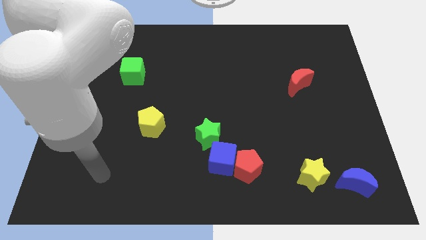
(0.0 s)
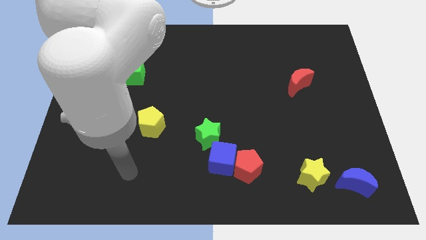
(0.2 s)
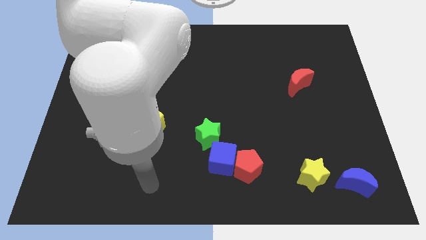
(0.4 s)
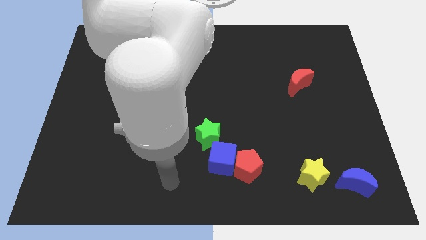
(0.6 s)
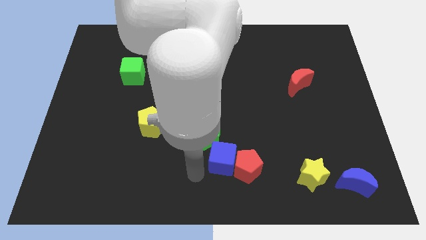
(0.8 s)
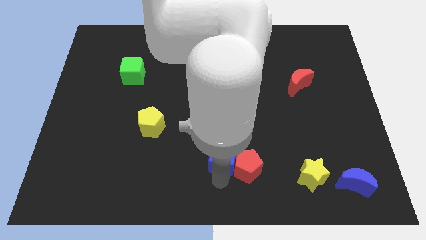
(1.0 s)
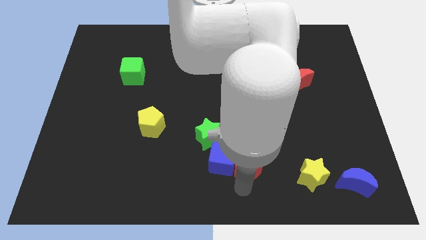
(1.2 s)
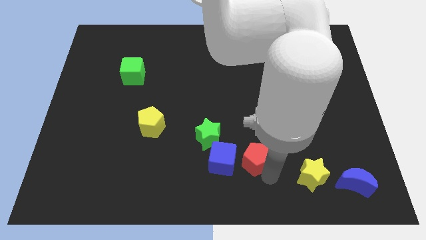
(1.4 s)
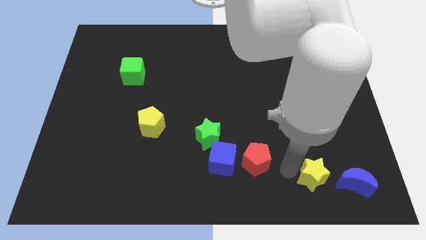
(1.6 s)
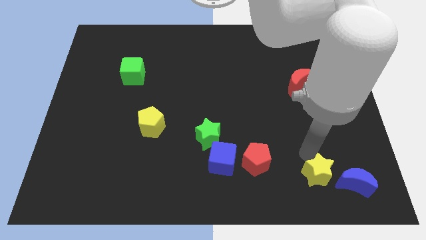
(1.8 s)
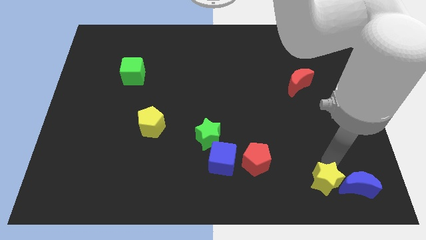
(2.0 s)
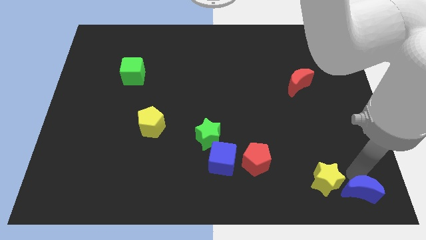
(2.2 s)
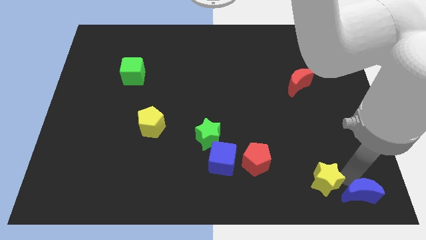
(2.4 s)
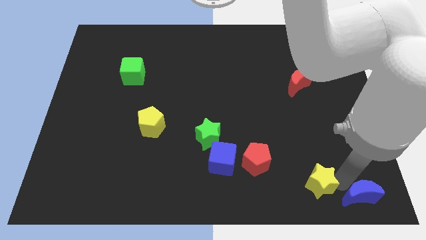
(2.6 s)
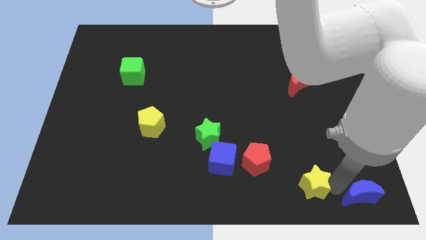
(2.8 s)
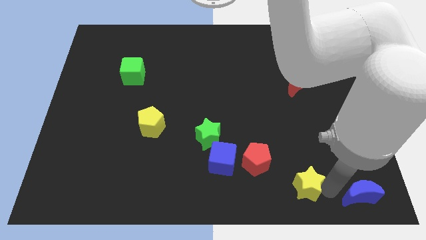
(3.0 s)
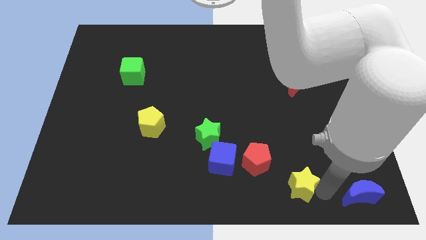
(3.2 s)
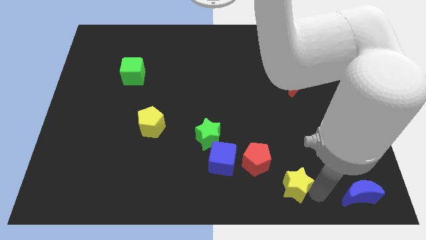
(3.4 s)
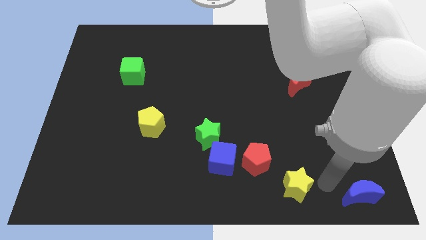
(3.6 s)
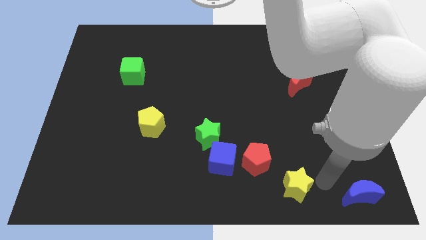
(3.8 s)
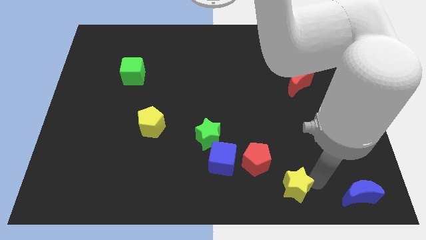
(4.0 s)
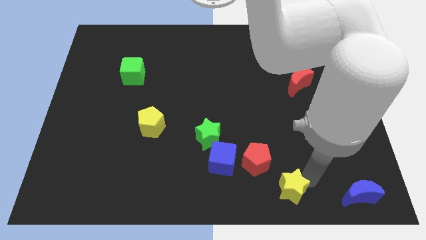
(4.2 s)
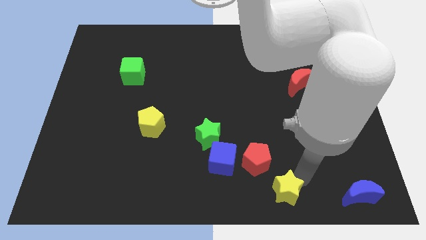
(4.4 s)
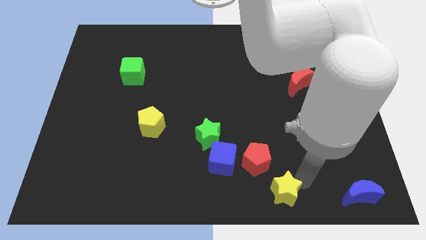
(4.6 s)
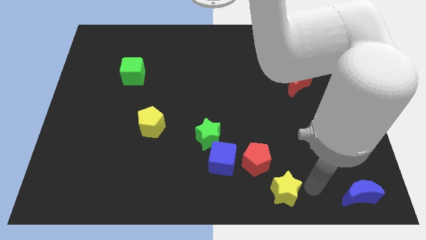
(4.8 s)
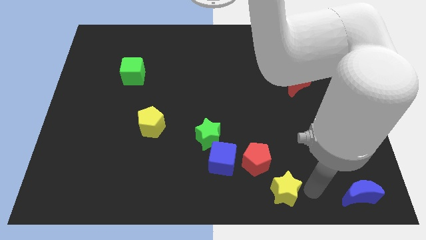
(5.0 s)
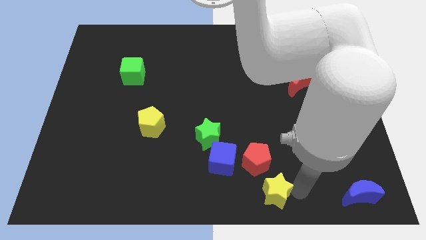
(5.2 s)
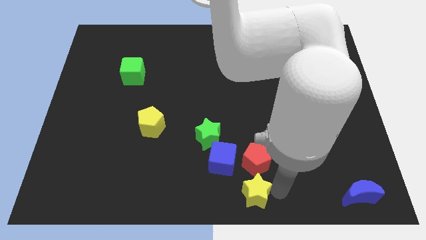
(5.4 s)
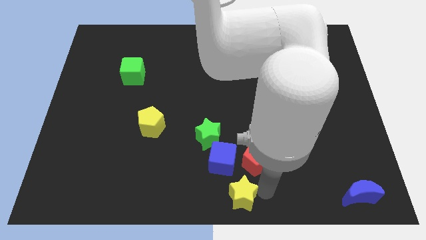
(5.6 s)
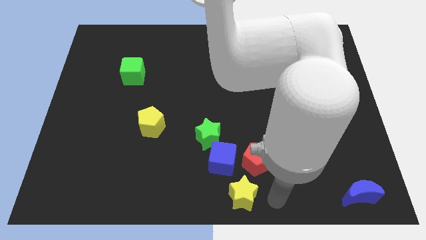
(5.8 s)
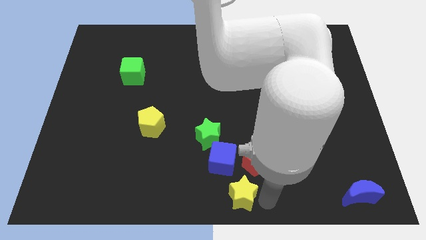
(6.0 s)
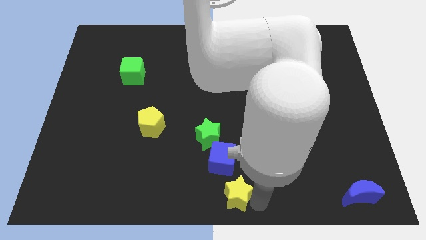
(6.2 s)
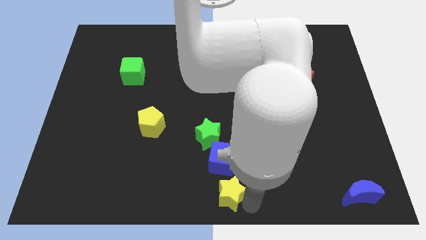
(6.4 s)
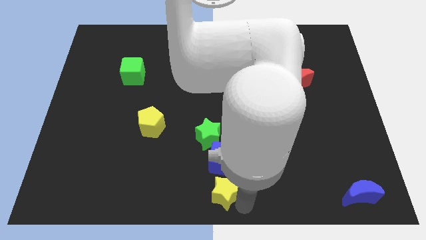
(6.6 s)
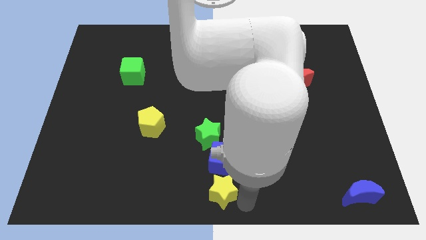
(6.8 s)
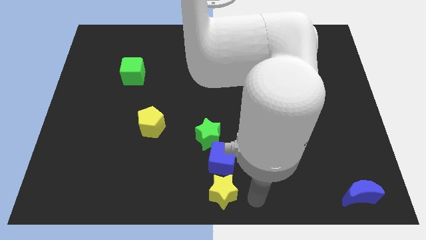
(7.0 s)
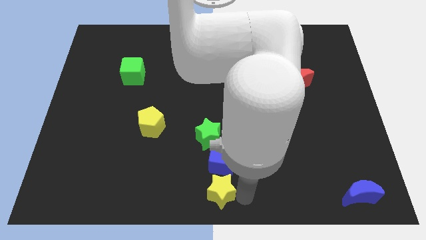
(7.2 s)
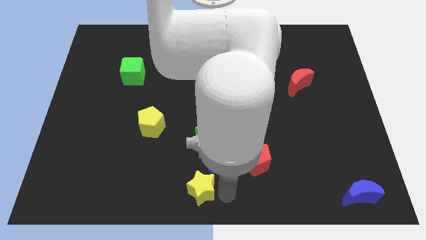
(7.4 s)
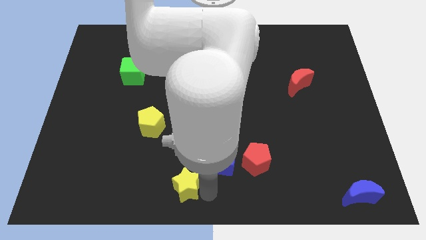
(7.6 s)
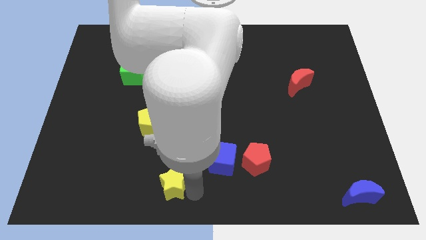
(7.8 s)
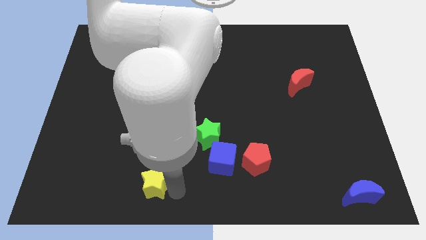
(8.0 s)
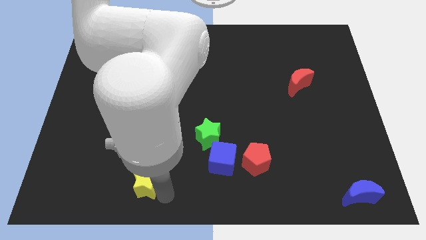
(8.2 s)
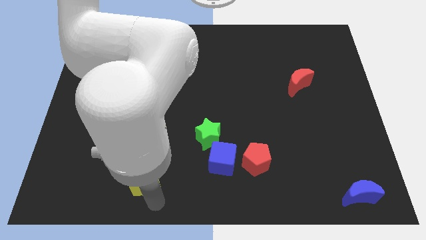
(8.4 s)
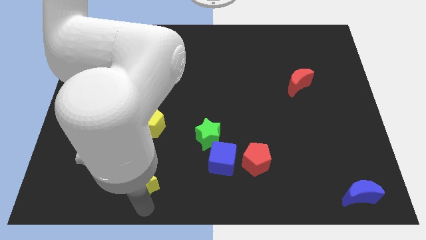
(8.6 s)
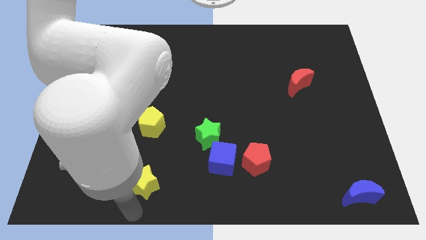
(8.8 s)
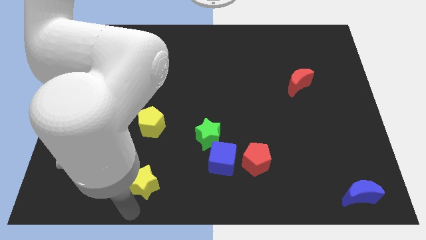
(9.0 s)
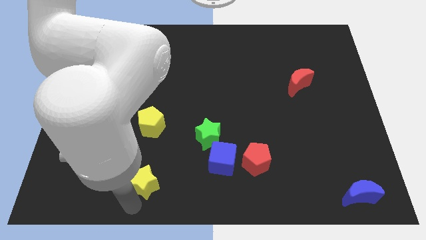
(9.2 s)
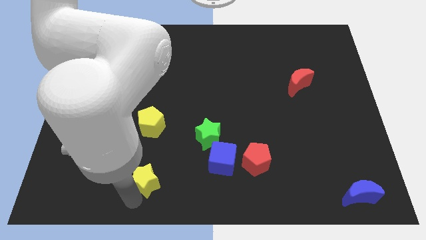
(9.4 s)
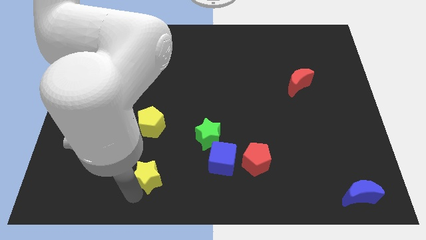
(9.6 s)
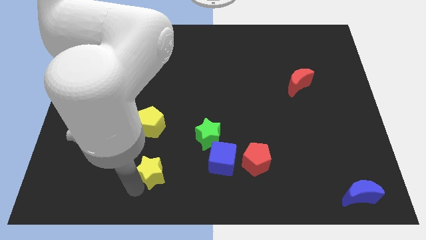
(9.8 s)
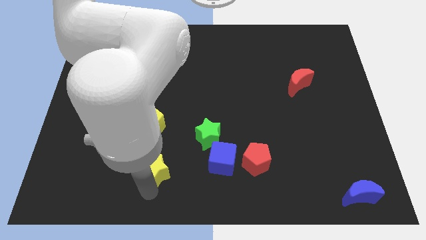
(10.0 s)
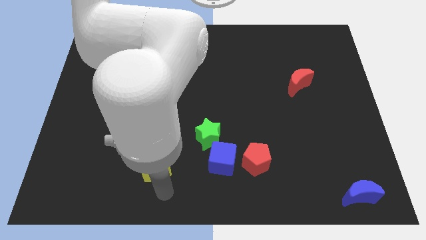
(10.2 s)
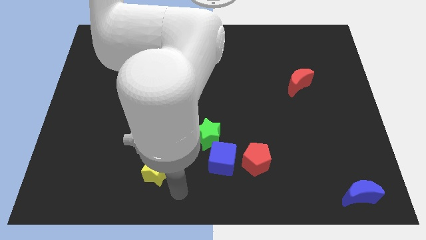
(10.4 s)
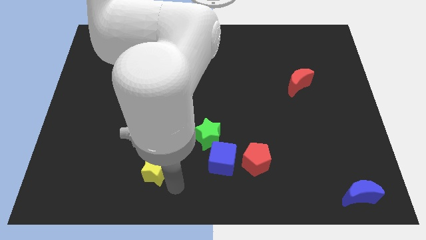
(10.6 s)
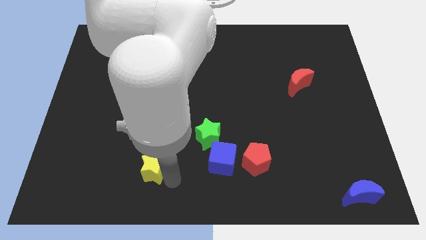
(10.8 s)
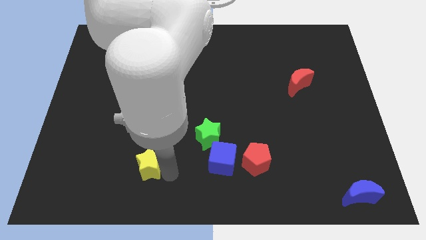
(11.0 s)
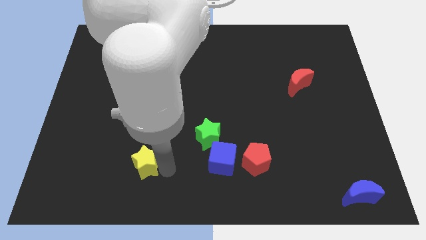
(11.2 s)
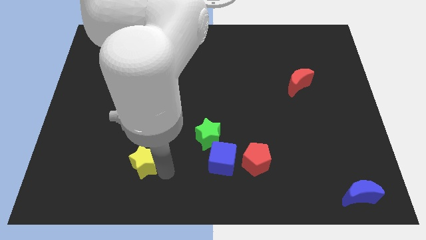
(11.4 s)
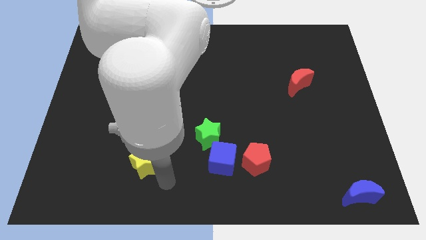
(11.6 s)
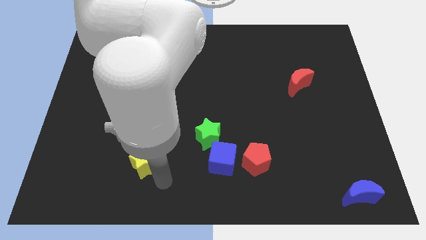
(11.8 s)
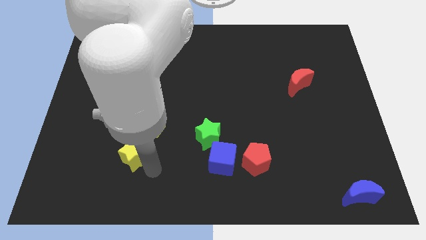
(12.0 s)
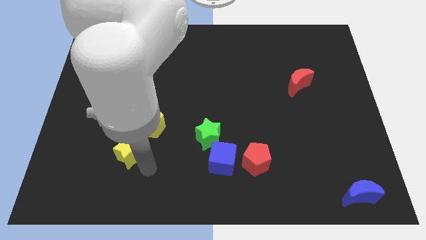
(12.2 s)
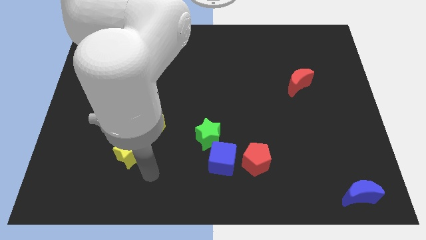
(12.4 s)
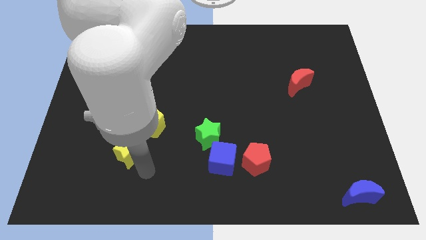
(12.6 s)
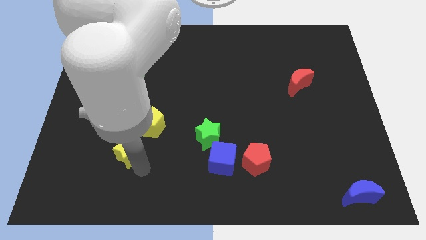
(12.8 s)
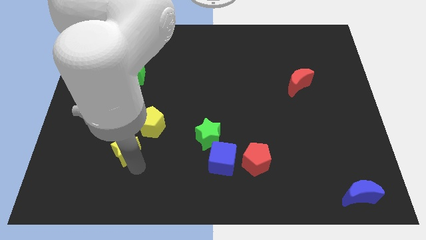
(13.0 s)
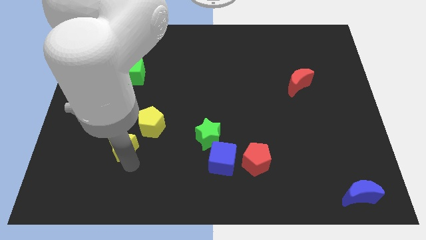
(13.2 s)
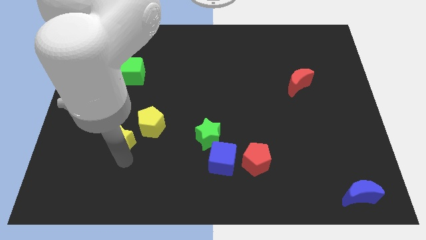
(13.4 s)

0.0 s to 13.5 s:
move the yellow star left of the yellow pentagon

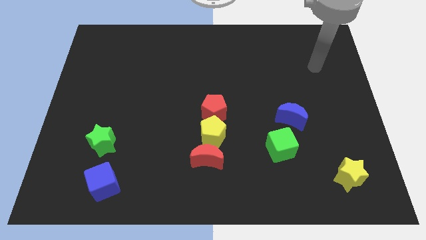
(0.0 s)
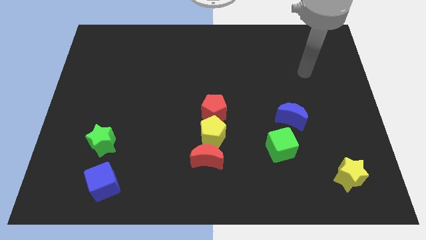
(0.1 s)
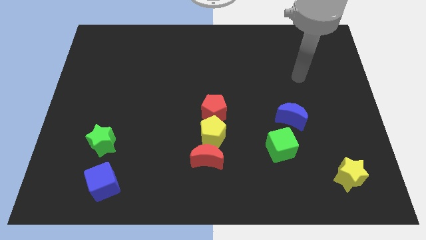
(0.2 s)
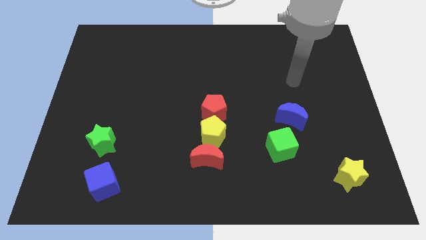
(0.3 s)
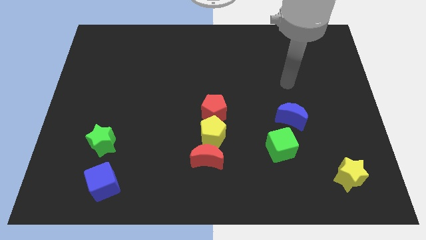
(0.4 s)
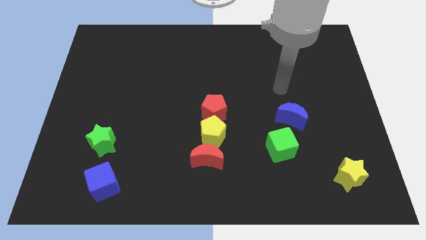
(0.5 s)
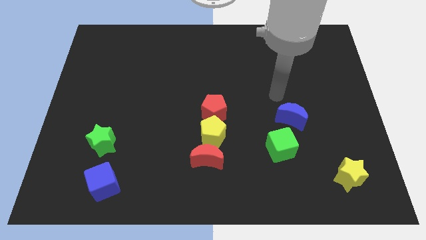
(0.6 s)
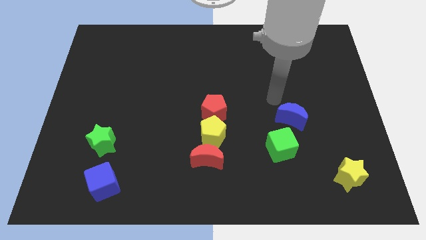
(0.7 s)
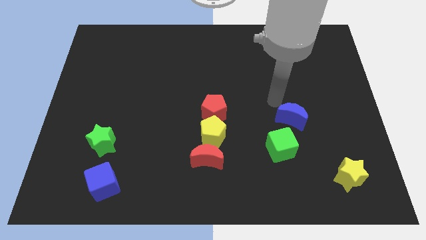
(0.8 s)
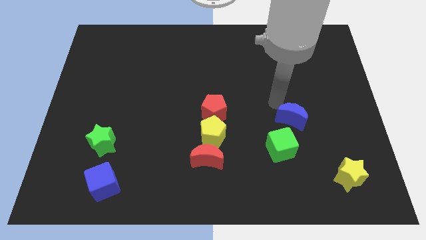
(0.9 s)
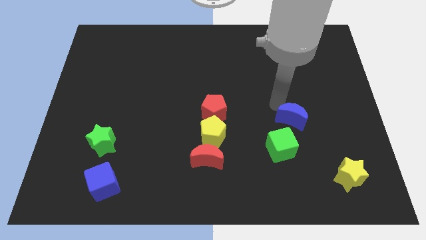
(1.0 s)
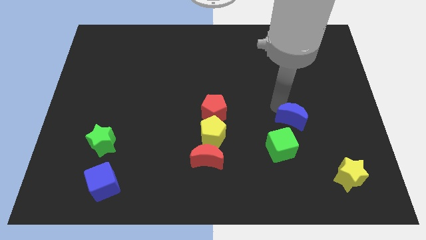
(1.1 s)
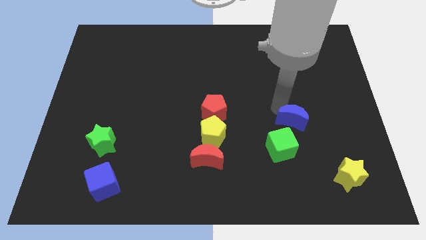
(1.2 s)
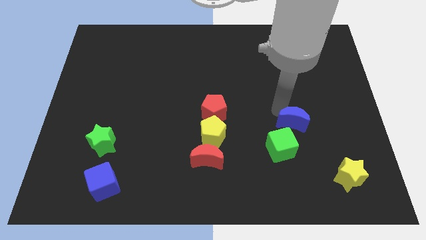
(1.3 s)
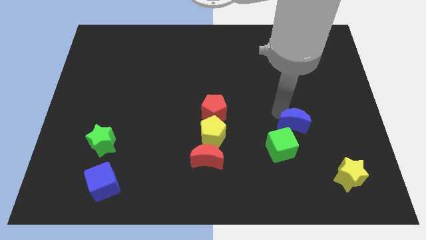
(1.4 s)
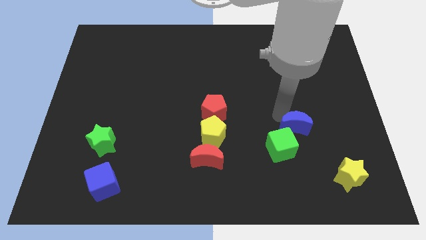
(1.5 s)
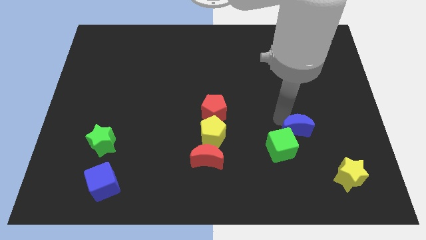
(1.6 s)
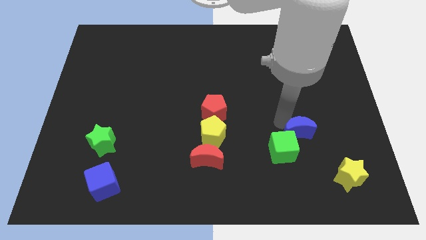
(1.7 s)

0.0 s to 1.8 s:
slide the blue moon to the right of the green cube
